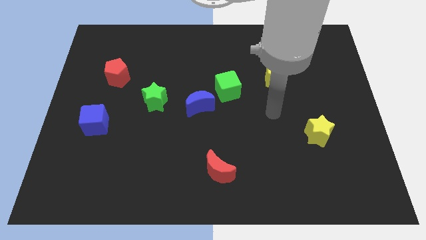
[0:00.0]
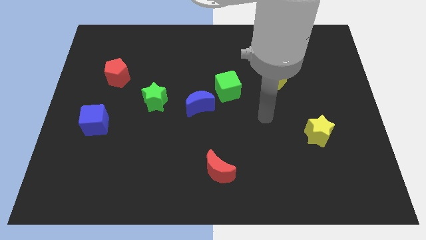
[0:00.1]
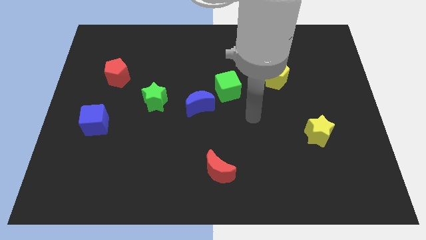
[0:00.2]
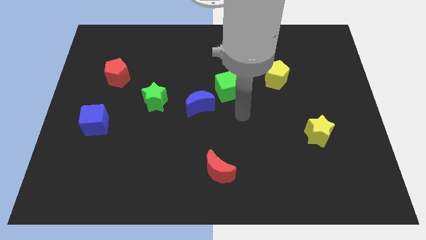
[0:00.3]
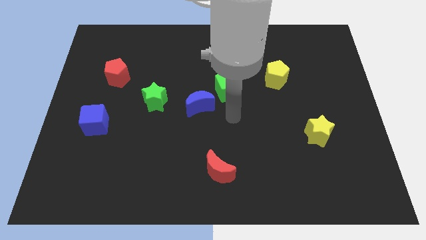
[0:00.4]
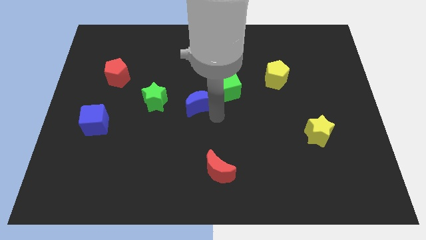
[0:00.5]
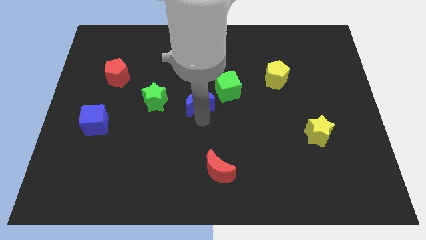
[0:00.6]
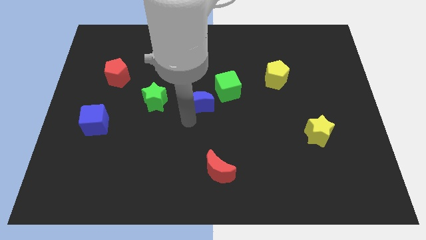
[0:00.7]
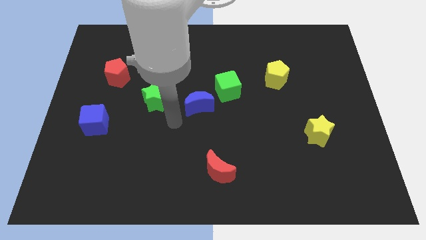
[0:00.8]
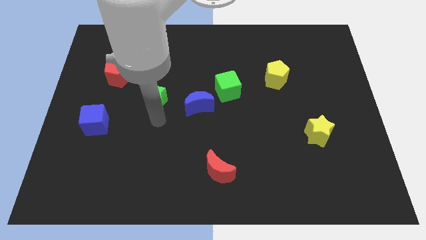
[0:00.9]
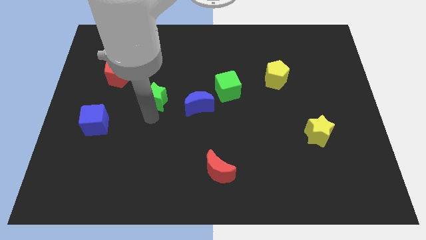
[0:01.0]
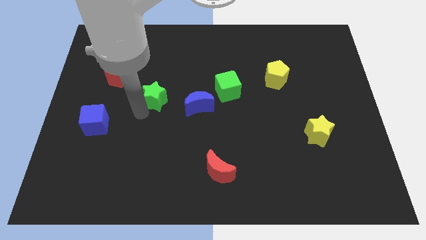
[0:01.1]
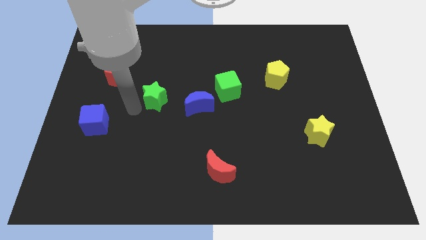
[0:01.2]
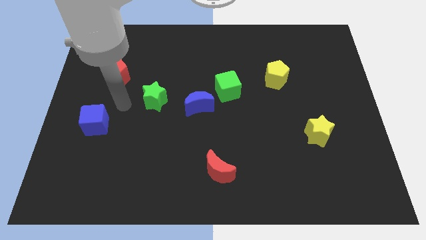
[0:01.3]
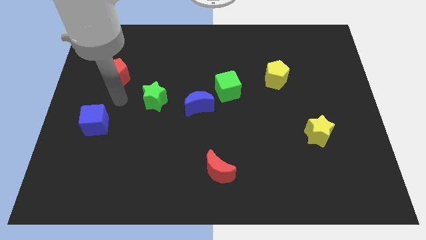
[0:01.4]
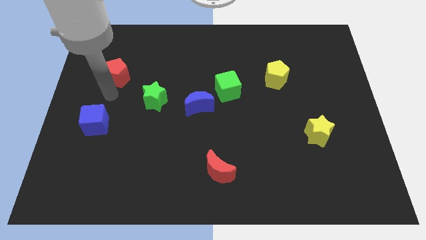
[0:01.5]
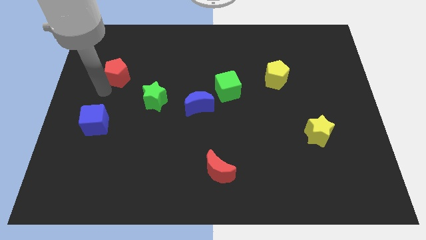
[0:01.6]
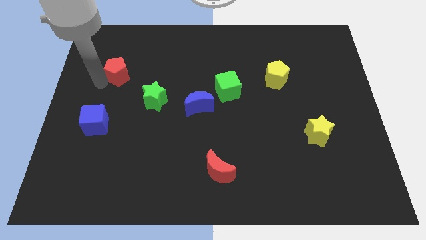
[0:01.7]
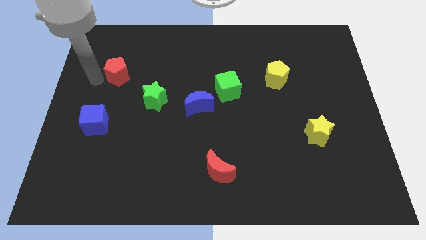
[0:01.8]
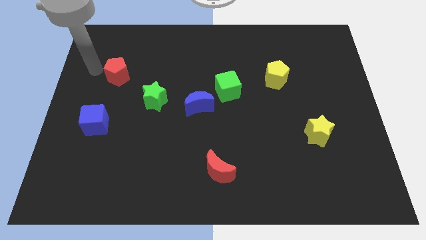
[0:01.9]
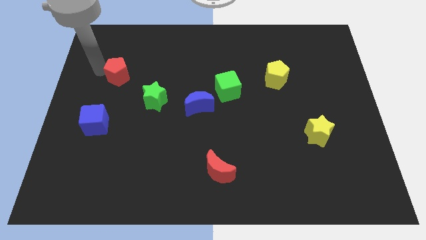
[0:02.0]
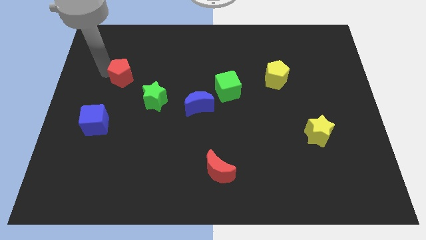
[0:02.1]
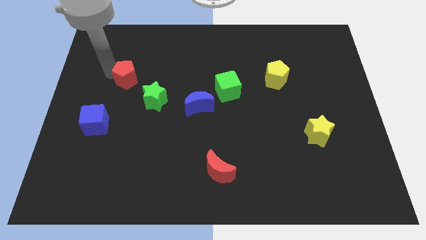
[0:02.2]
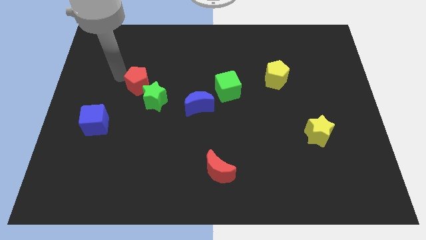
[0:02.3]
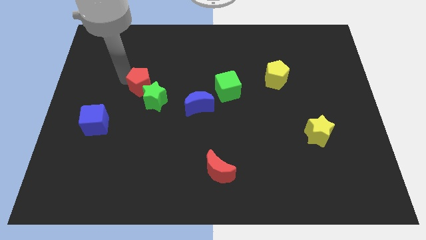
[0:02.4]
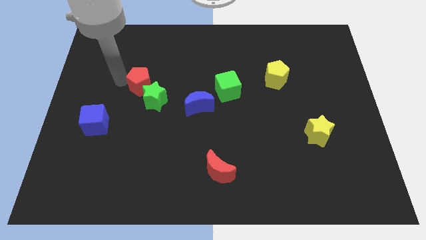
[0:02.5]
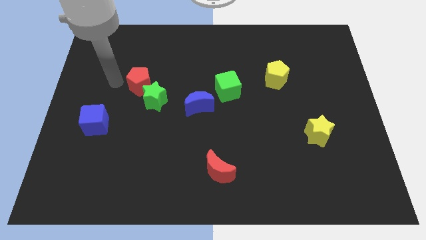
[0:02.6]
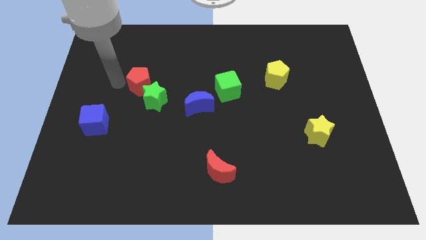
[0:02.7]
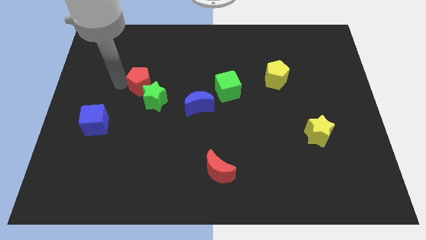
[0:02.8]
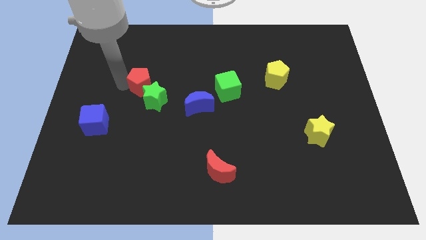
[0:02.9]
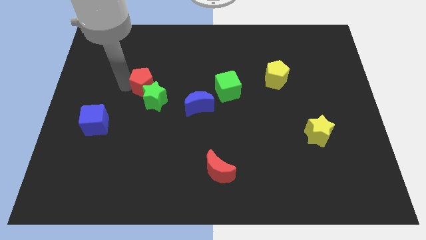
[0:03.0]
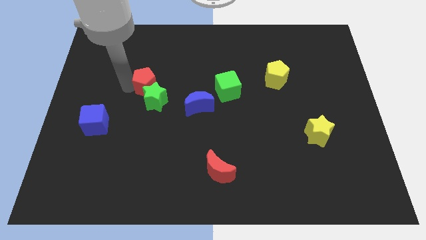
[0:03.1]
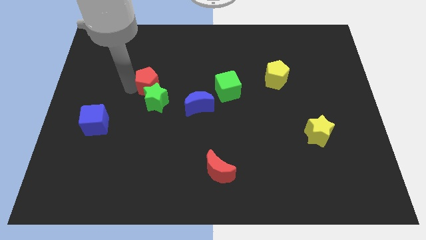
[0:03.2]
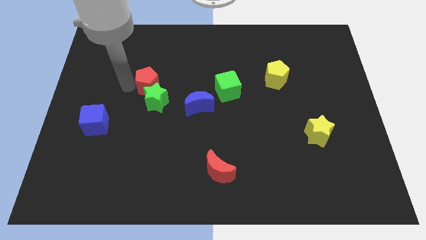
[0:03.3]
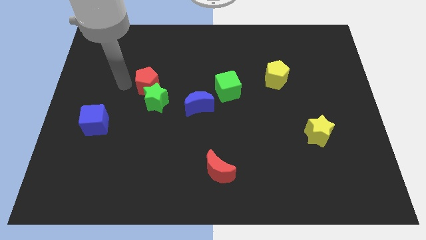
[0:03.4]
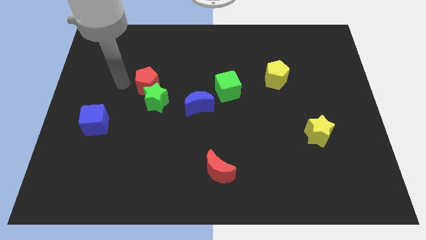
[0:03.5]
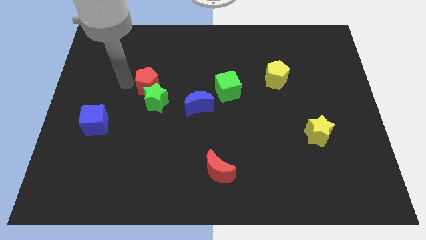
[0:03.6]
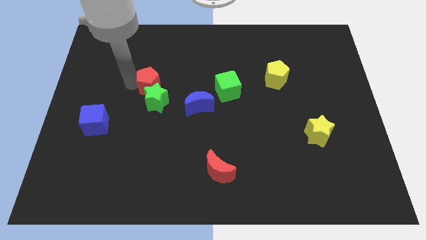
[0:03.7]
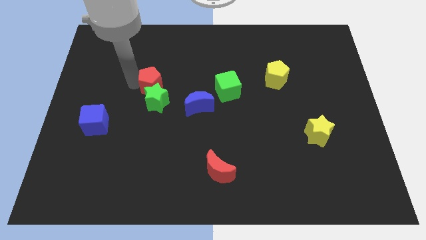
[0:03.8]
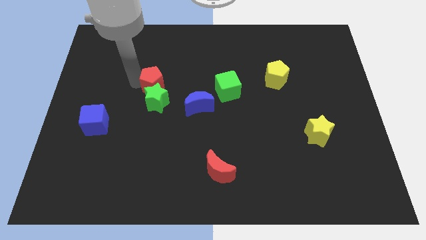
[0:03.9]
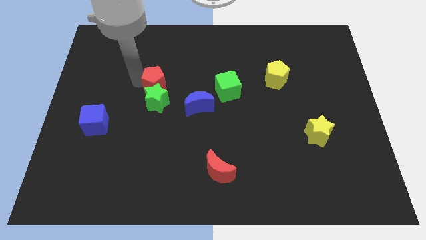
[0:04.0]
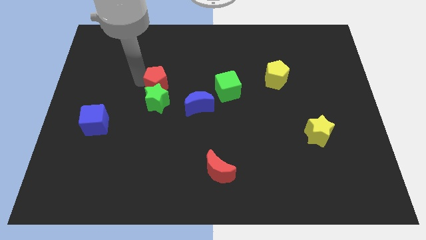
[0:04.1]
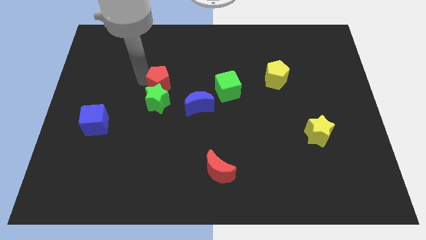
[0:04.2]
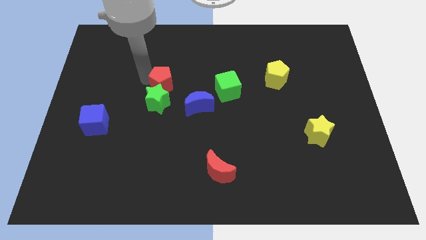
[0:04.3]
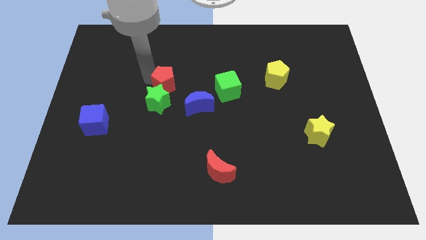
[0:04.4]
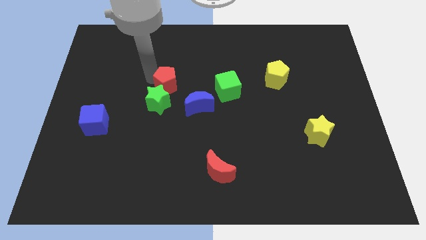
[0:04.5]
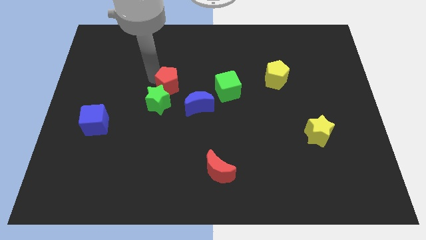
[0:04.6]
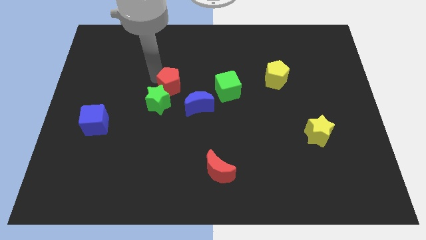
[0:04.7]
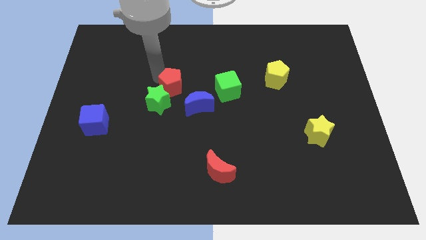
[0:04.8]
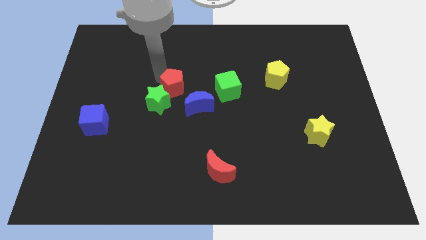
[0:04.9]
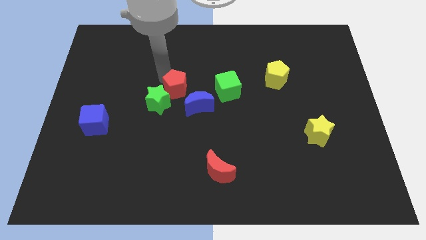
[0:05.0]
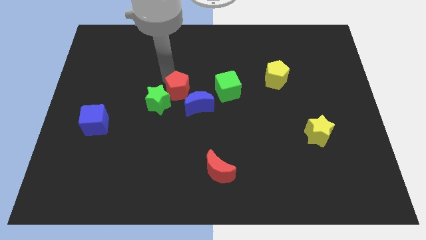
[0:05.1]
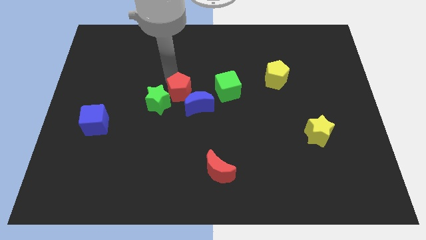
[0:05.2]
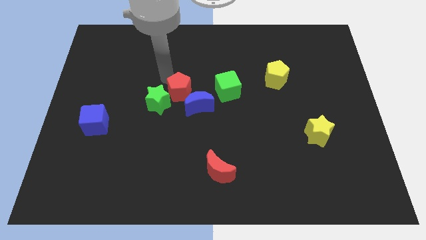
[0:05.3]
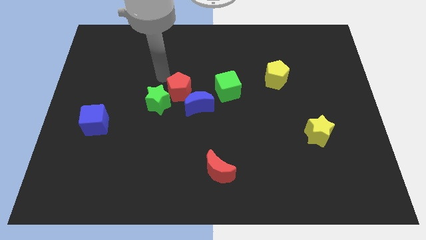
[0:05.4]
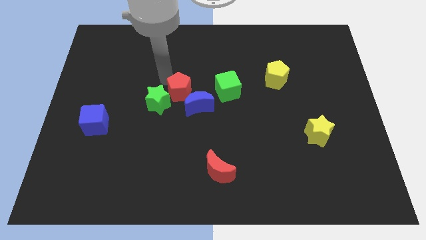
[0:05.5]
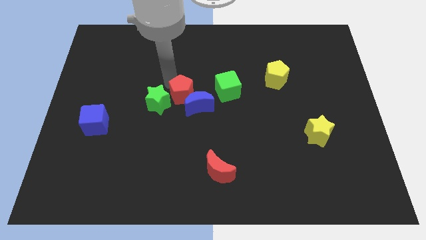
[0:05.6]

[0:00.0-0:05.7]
push the red pentagon close to the blue moon
